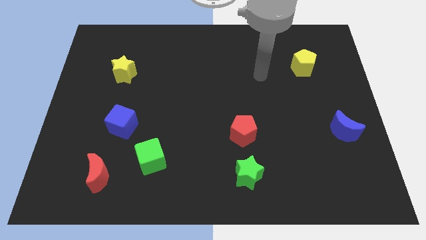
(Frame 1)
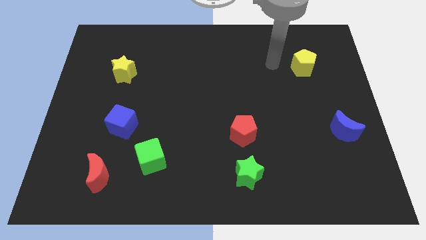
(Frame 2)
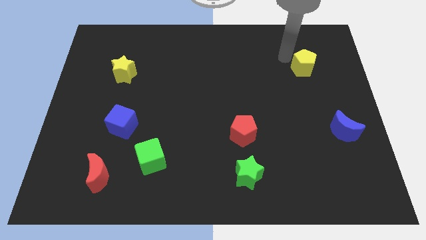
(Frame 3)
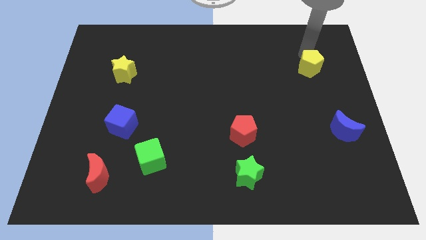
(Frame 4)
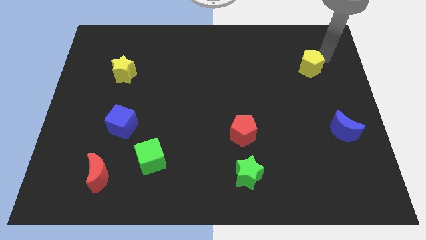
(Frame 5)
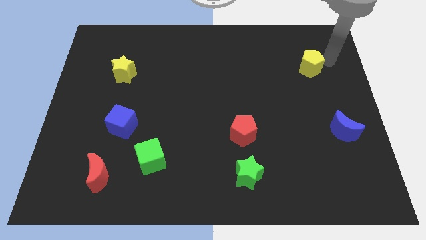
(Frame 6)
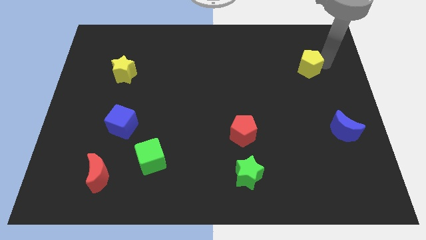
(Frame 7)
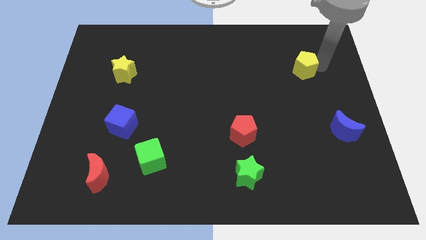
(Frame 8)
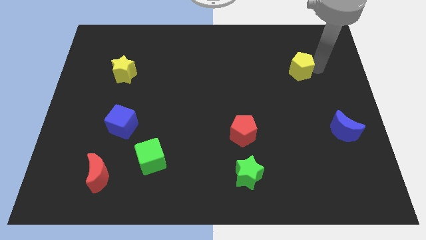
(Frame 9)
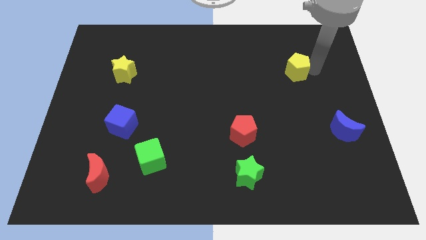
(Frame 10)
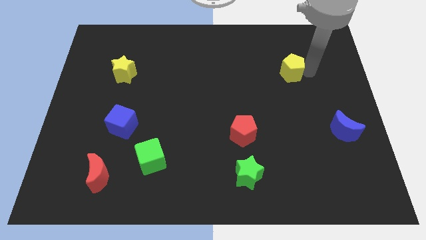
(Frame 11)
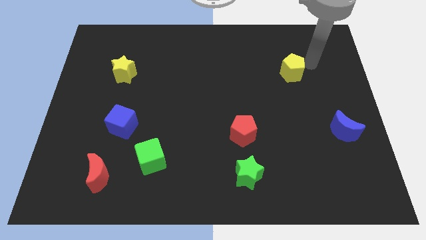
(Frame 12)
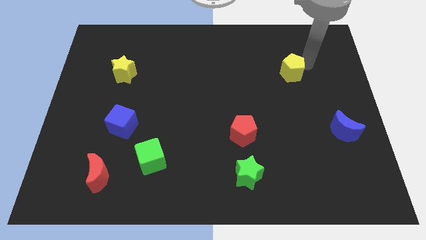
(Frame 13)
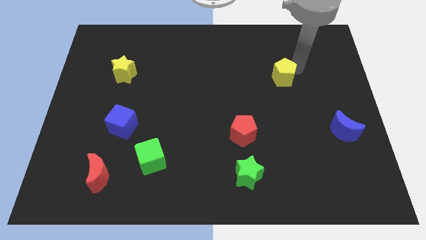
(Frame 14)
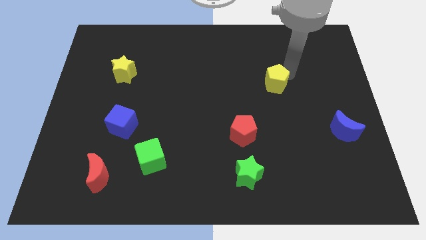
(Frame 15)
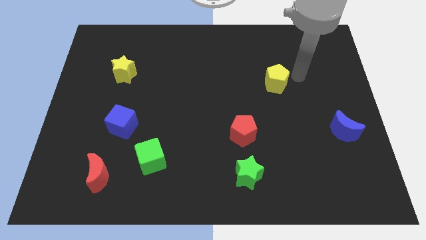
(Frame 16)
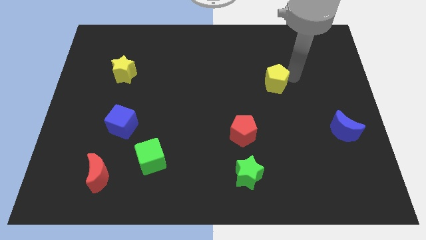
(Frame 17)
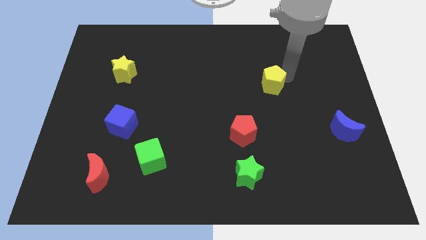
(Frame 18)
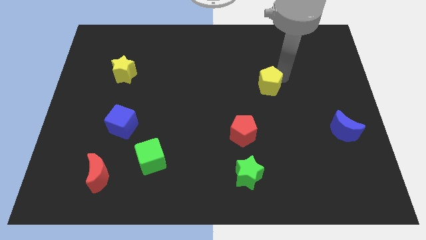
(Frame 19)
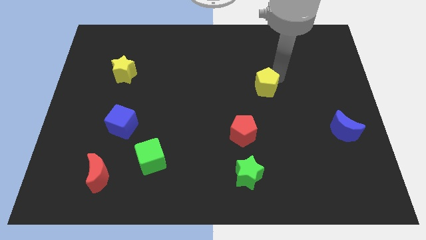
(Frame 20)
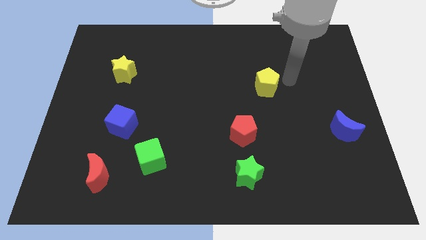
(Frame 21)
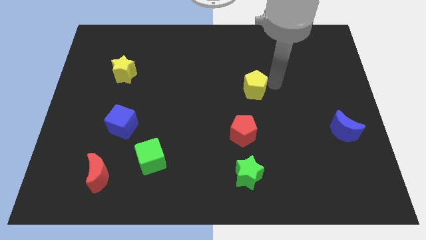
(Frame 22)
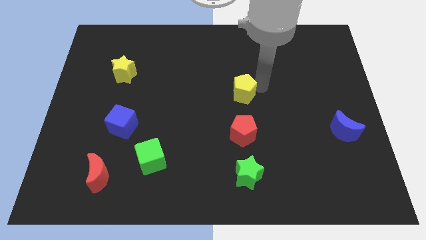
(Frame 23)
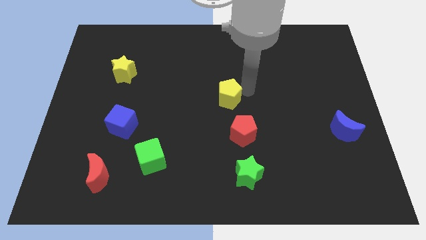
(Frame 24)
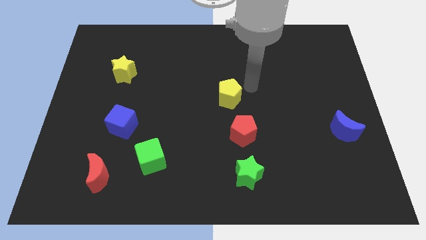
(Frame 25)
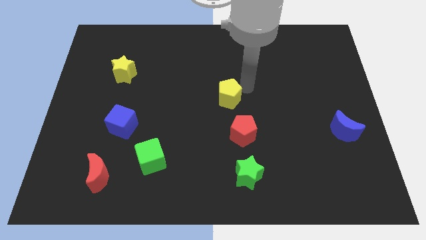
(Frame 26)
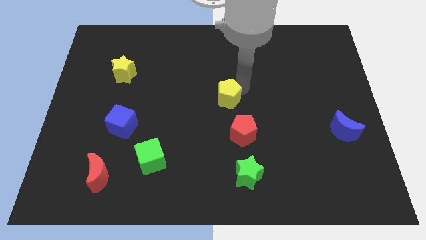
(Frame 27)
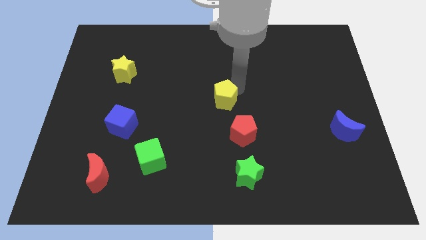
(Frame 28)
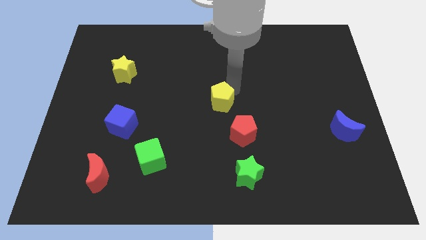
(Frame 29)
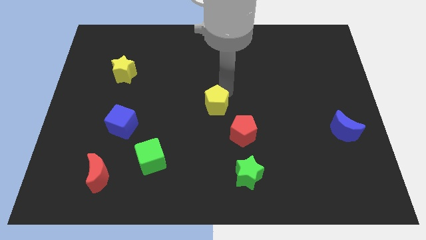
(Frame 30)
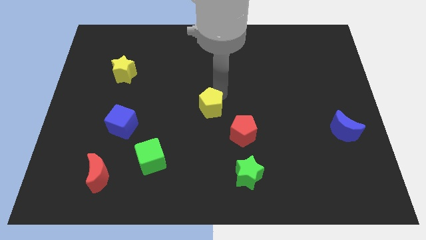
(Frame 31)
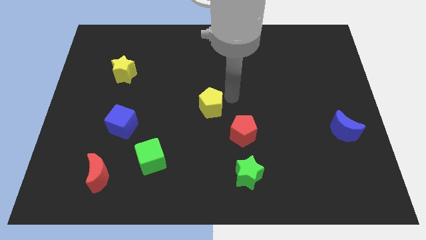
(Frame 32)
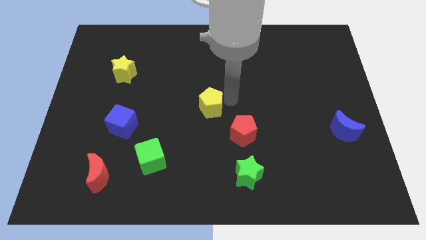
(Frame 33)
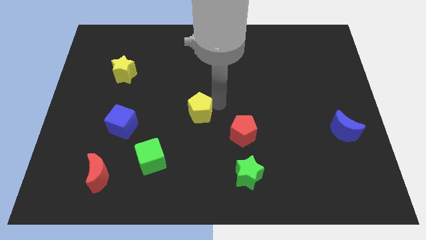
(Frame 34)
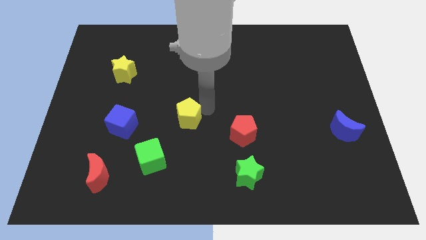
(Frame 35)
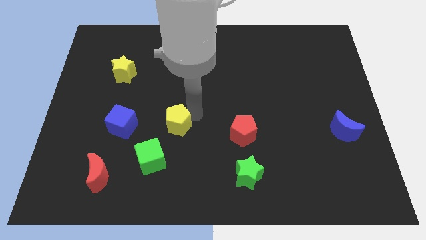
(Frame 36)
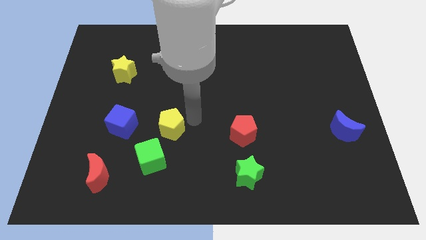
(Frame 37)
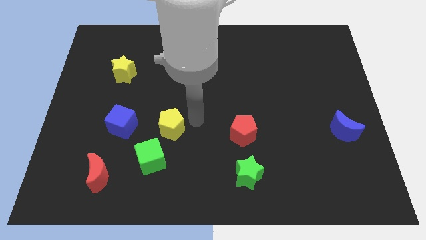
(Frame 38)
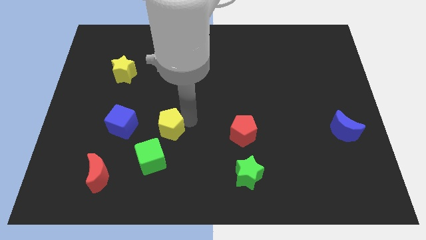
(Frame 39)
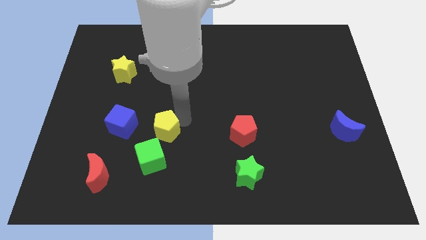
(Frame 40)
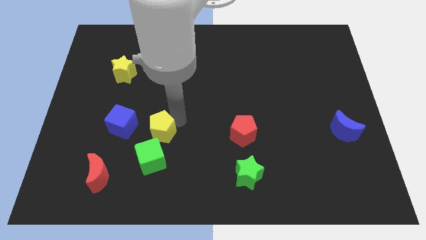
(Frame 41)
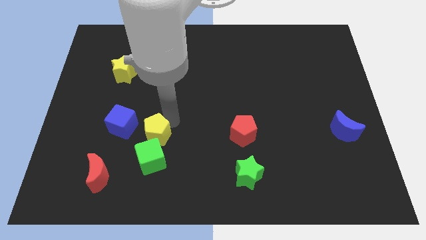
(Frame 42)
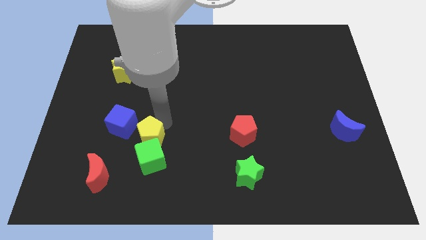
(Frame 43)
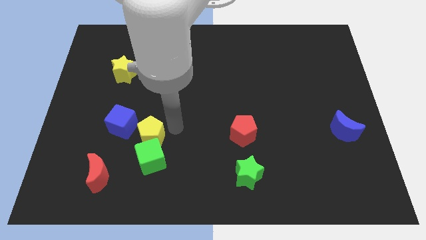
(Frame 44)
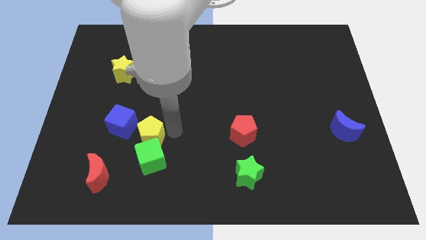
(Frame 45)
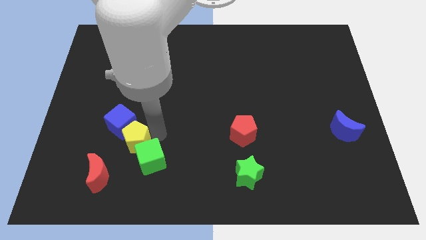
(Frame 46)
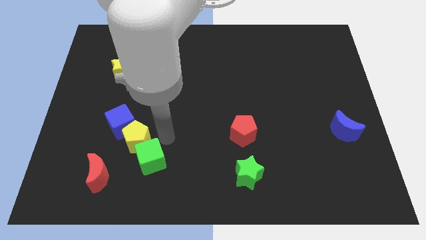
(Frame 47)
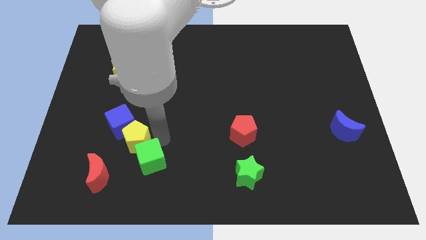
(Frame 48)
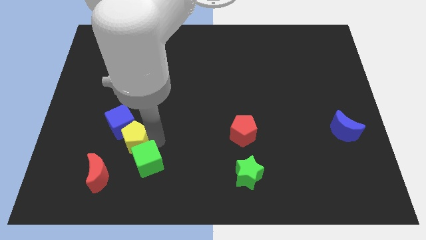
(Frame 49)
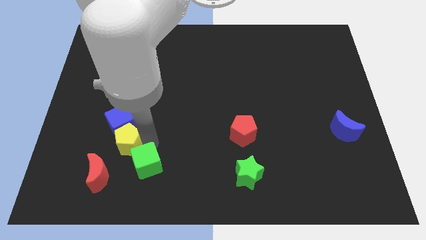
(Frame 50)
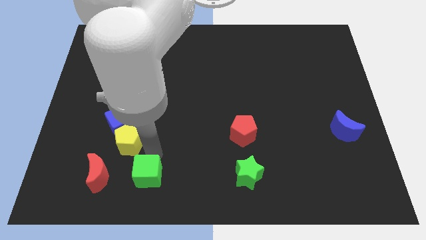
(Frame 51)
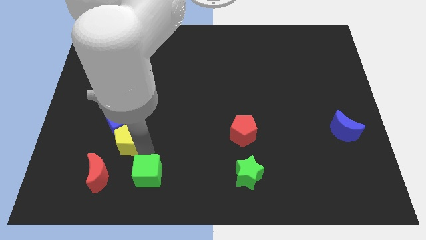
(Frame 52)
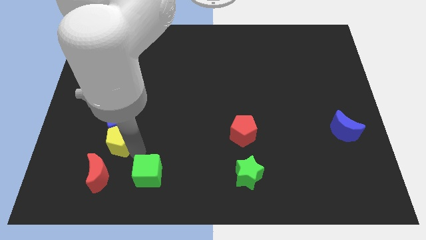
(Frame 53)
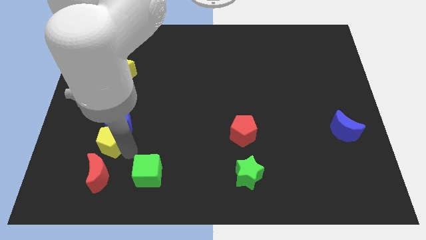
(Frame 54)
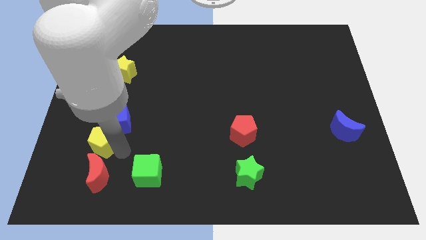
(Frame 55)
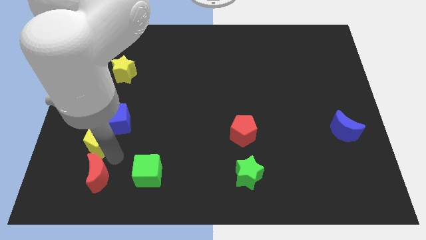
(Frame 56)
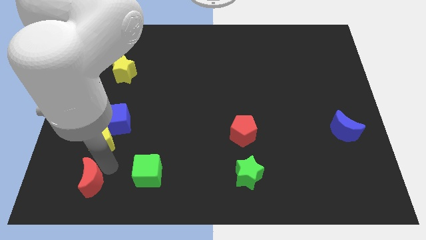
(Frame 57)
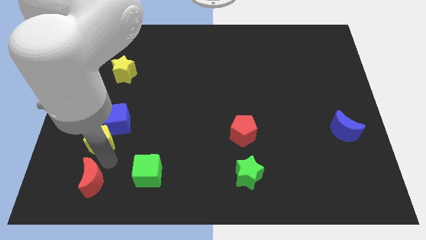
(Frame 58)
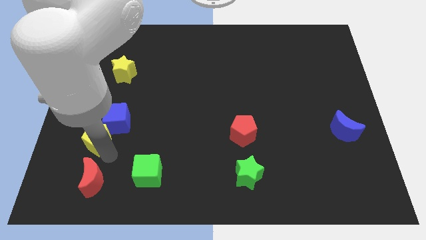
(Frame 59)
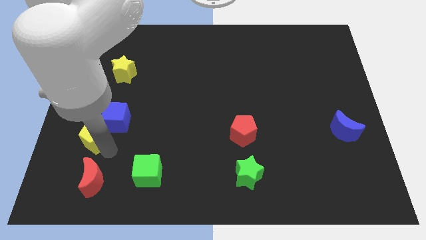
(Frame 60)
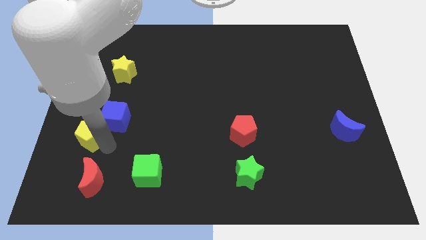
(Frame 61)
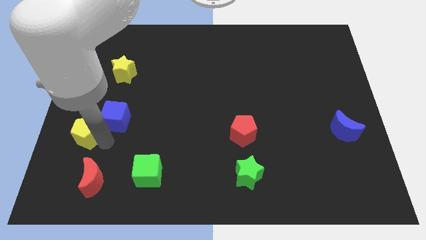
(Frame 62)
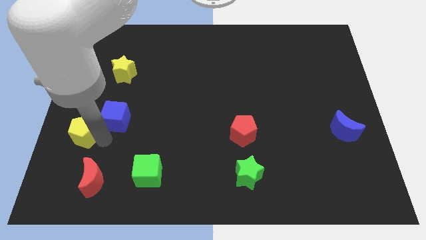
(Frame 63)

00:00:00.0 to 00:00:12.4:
slide the yellow pentagon to the left side

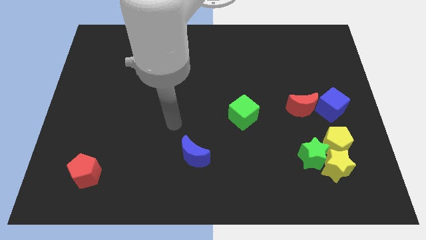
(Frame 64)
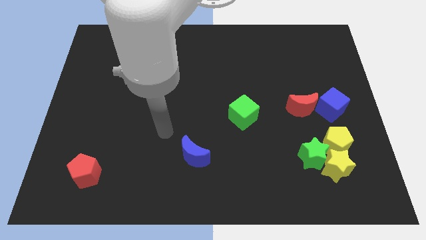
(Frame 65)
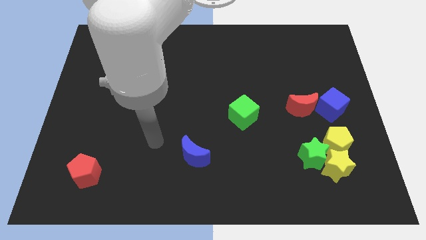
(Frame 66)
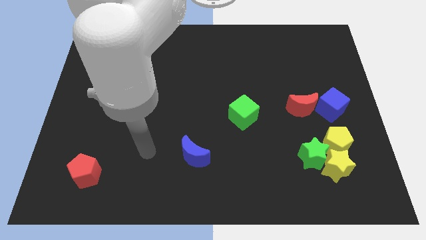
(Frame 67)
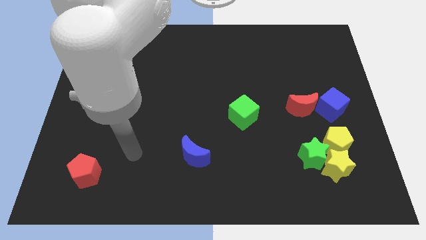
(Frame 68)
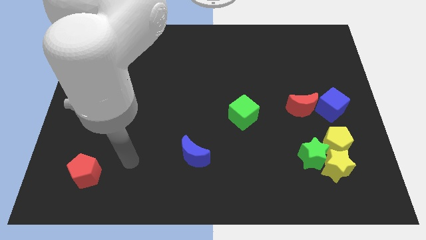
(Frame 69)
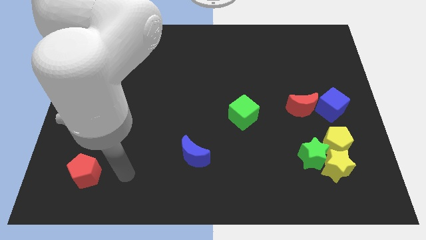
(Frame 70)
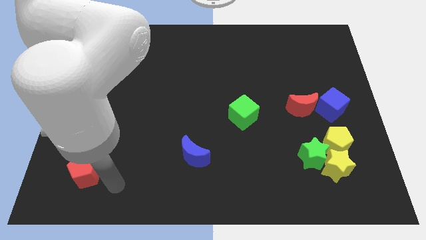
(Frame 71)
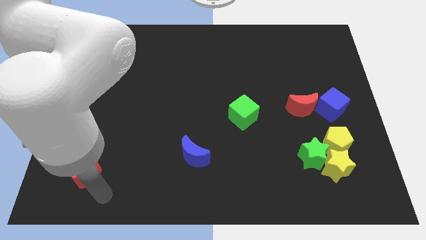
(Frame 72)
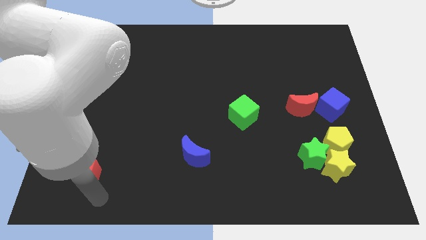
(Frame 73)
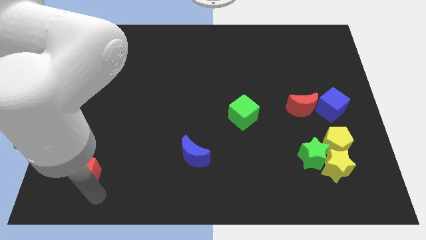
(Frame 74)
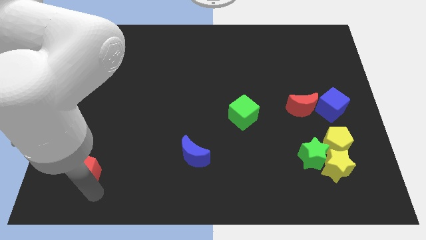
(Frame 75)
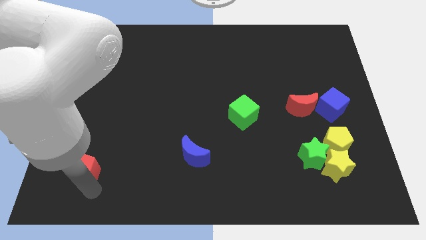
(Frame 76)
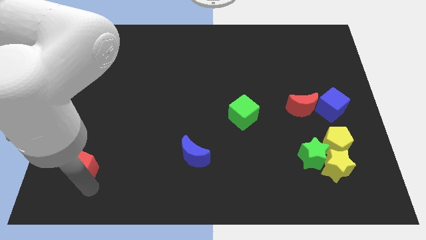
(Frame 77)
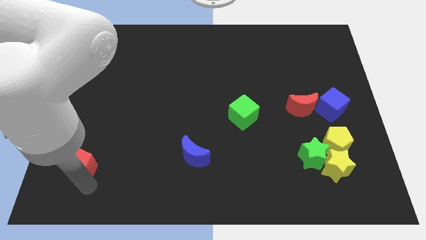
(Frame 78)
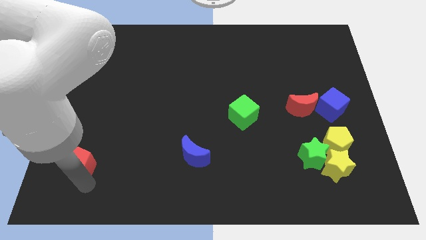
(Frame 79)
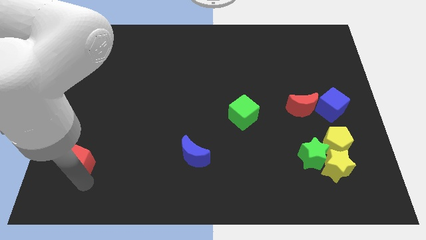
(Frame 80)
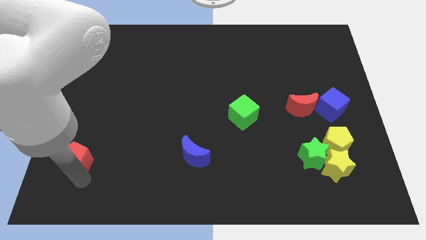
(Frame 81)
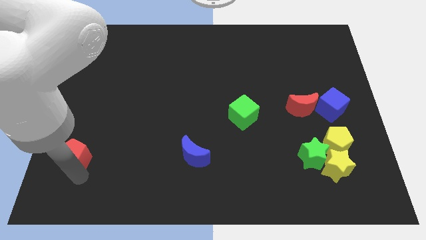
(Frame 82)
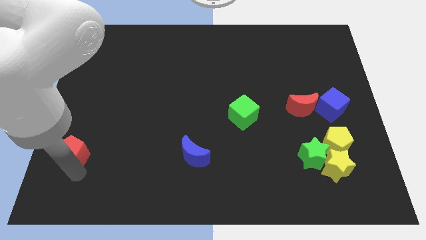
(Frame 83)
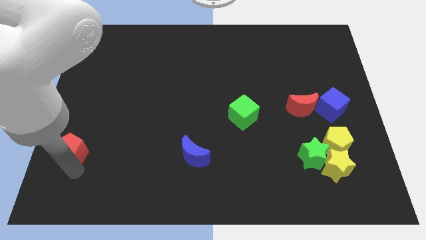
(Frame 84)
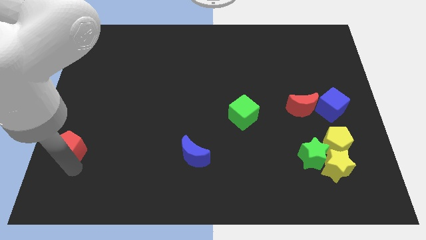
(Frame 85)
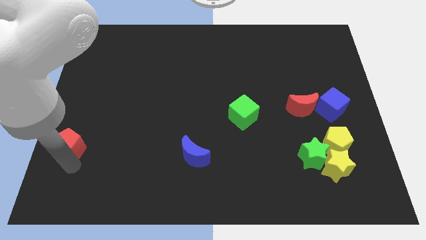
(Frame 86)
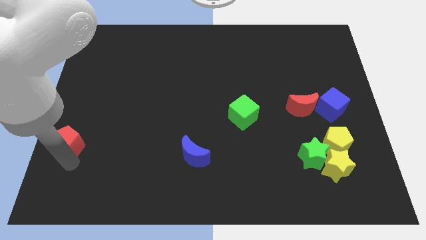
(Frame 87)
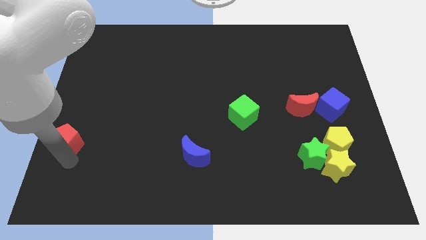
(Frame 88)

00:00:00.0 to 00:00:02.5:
slide the red pentagon to the center left
